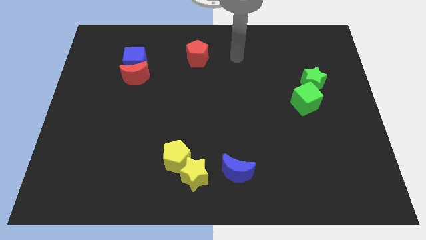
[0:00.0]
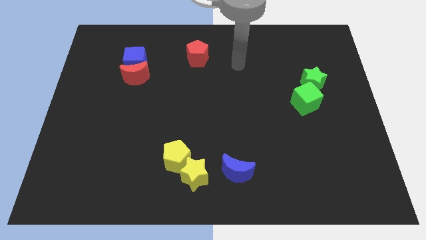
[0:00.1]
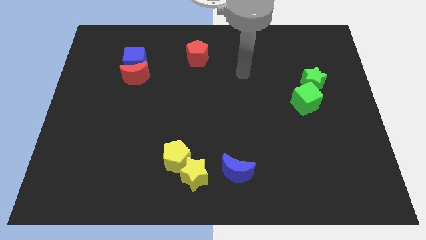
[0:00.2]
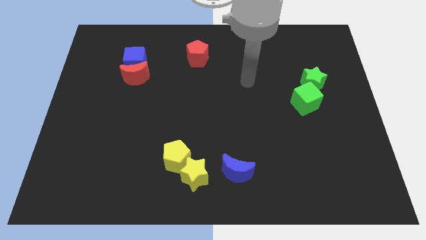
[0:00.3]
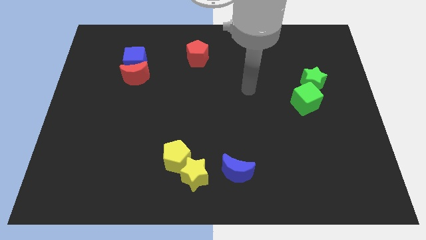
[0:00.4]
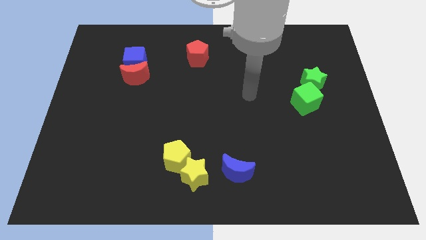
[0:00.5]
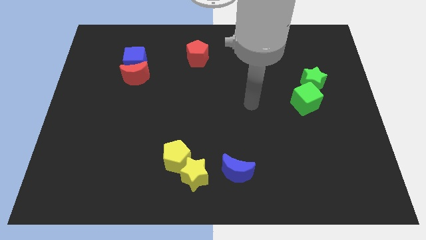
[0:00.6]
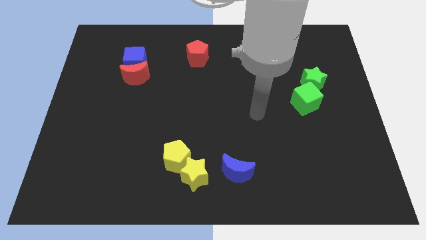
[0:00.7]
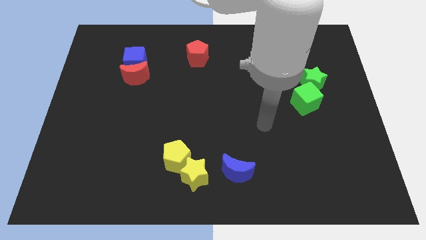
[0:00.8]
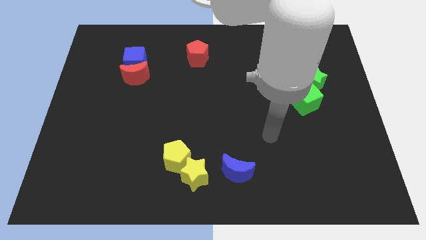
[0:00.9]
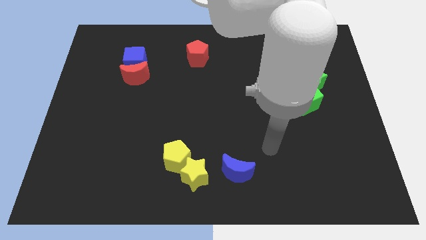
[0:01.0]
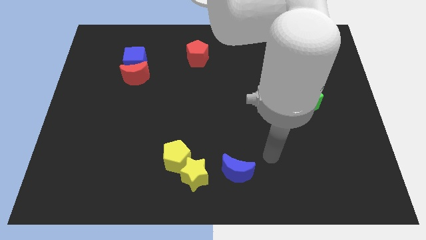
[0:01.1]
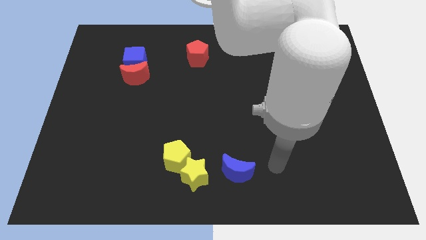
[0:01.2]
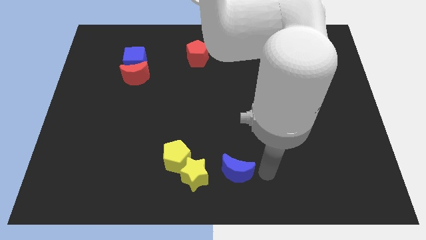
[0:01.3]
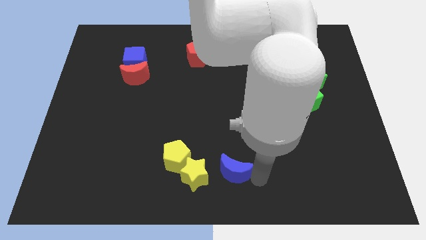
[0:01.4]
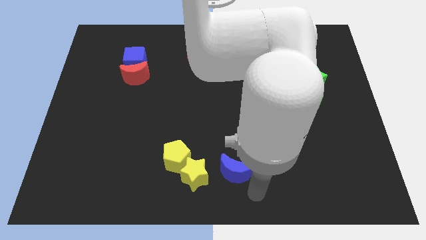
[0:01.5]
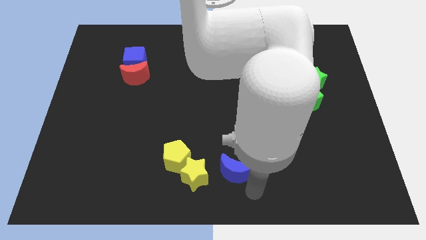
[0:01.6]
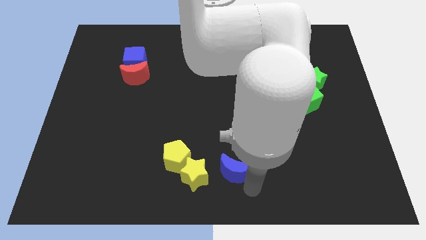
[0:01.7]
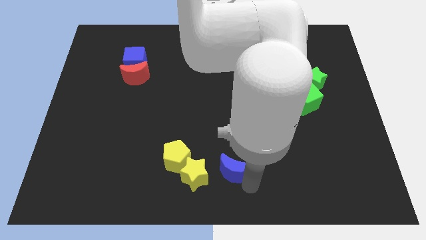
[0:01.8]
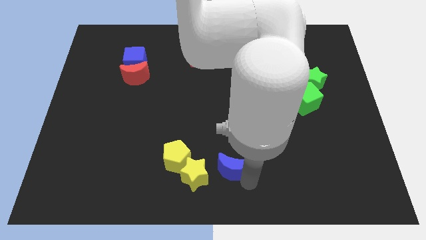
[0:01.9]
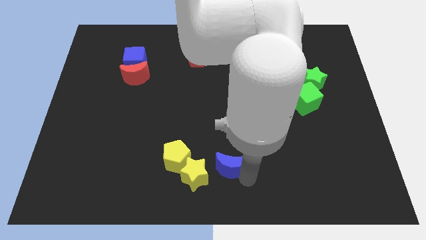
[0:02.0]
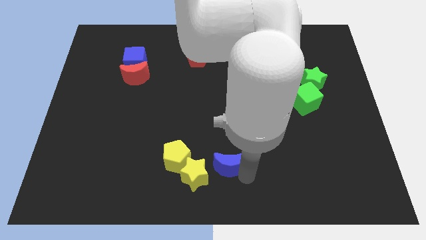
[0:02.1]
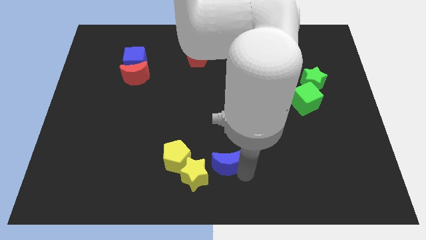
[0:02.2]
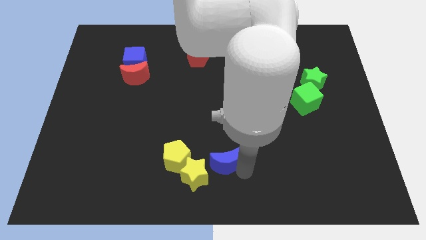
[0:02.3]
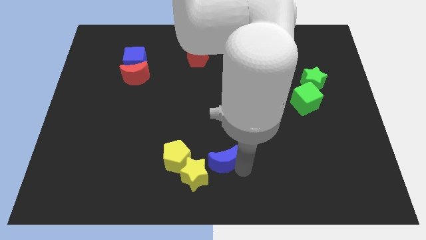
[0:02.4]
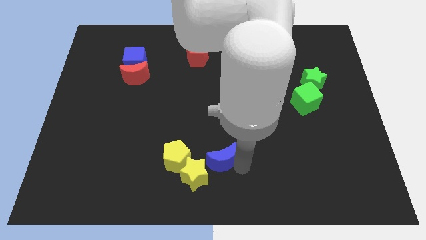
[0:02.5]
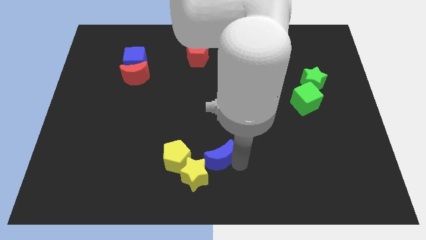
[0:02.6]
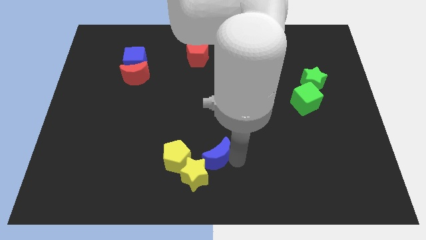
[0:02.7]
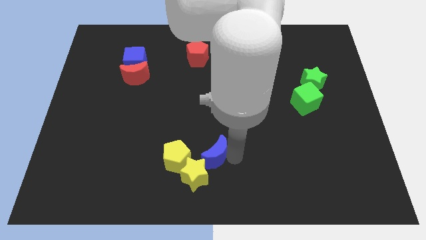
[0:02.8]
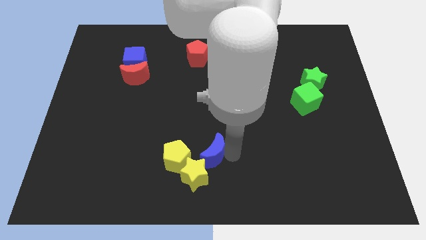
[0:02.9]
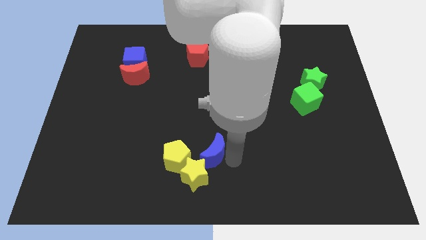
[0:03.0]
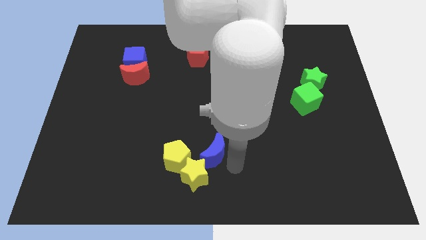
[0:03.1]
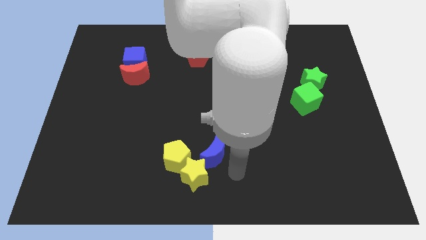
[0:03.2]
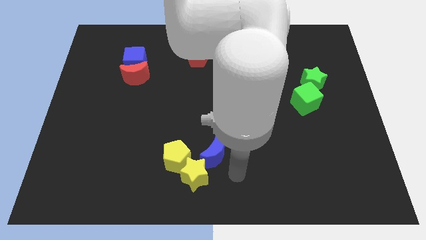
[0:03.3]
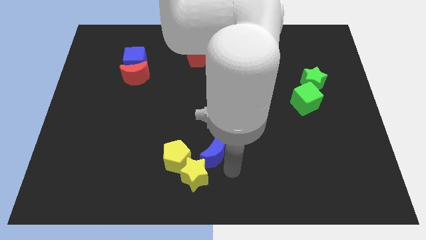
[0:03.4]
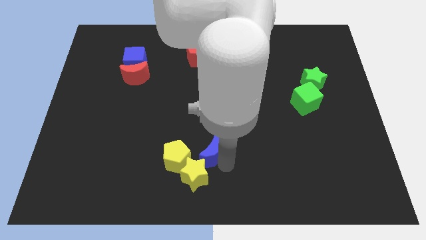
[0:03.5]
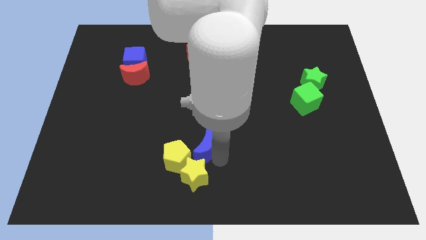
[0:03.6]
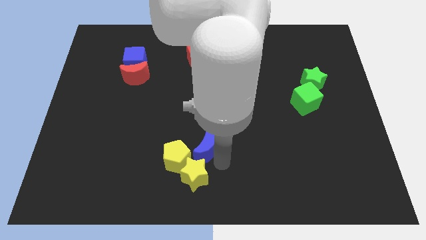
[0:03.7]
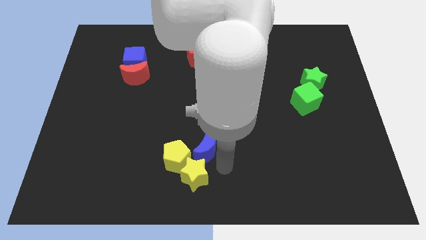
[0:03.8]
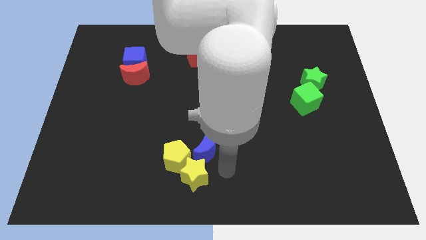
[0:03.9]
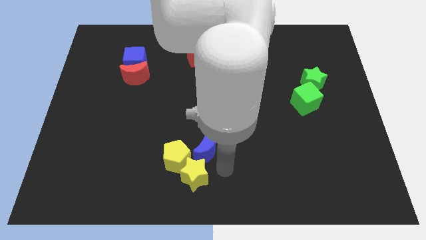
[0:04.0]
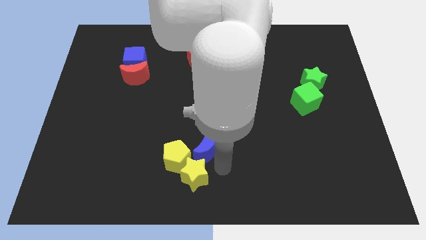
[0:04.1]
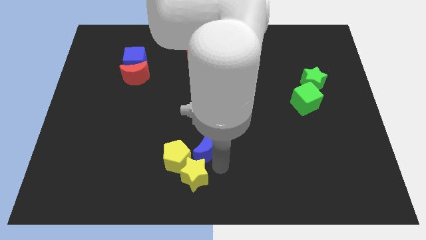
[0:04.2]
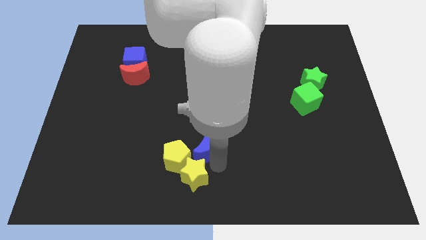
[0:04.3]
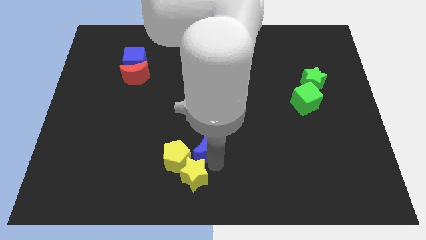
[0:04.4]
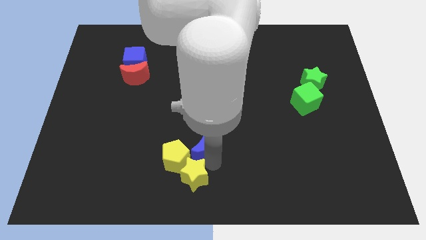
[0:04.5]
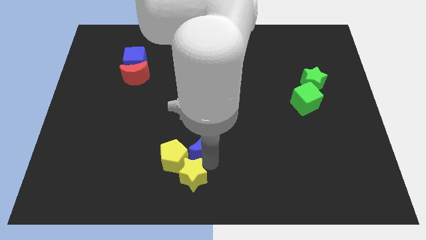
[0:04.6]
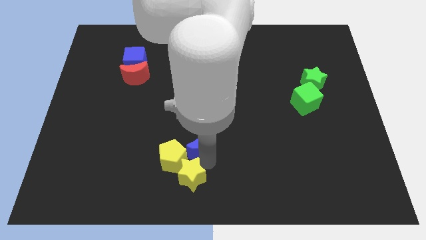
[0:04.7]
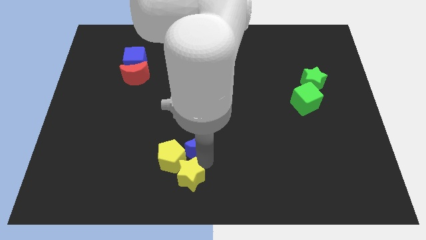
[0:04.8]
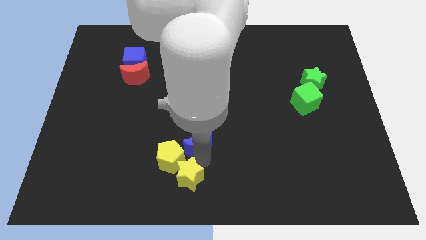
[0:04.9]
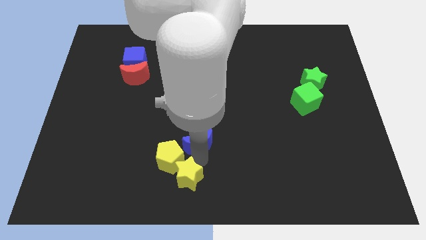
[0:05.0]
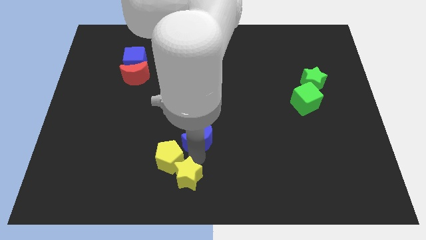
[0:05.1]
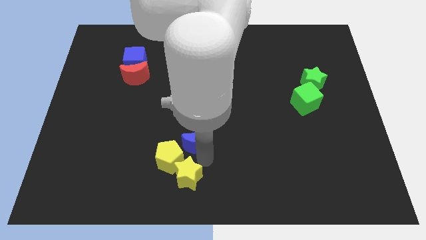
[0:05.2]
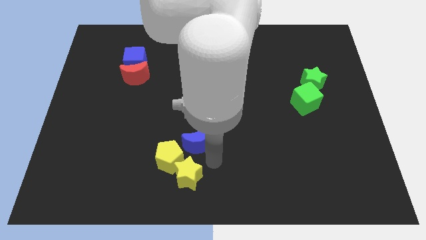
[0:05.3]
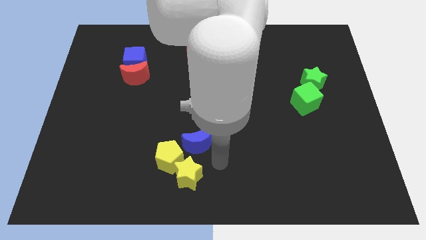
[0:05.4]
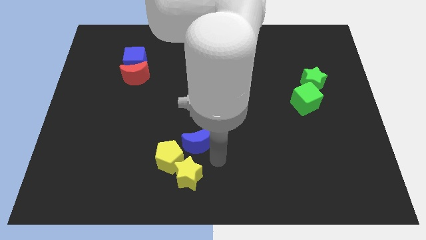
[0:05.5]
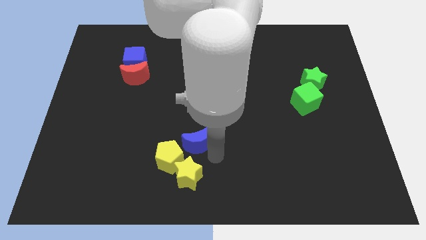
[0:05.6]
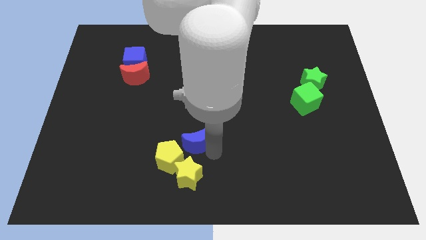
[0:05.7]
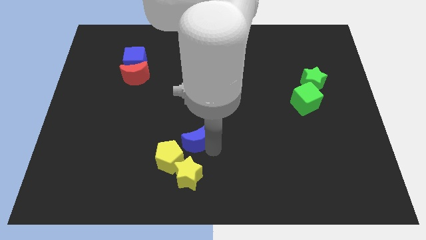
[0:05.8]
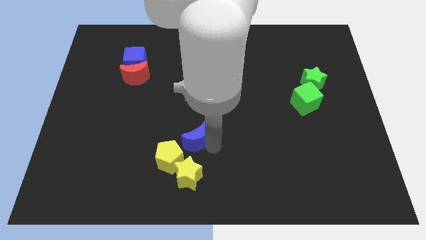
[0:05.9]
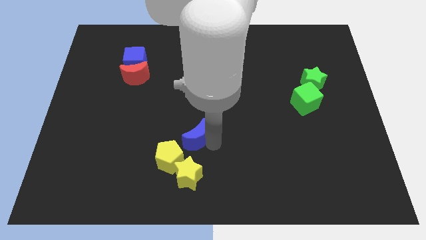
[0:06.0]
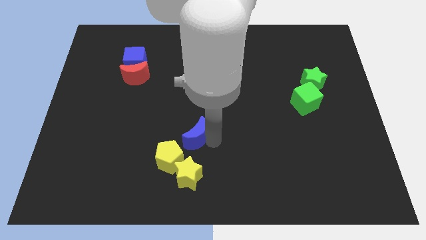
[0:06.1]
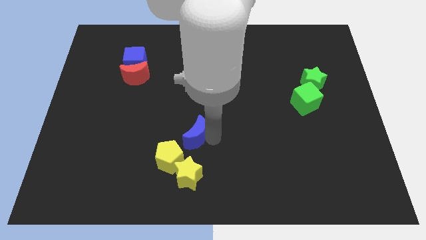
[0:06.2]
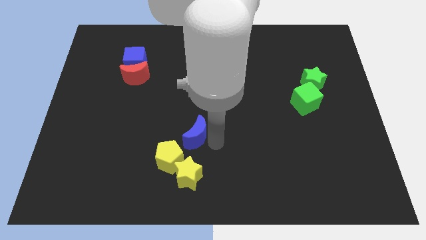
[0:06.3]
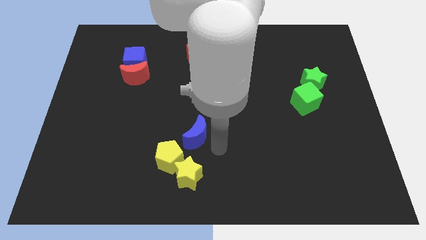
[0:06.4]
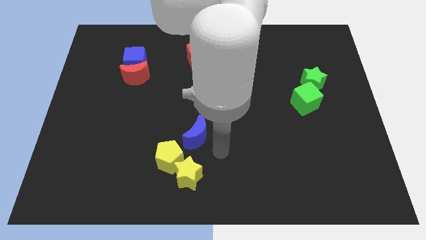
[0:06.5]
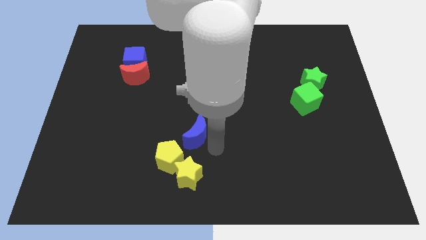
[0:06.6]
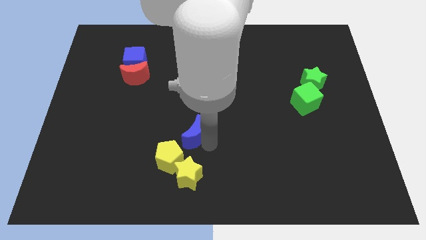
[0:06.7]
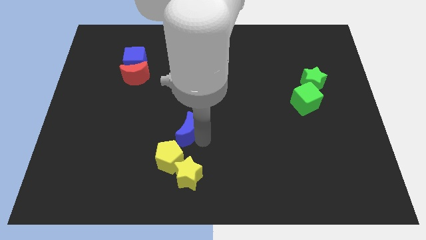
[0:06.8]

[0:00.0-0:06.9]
slide the blue moon to the top of the yellow pentagon

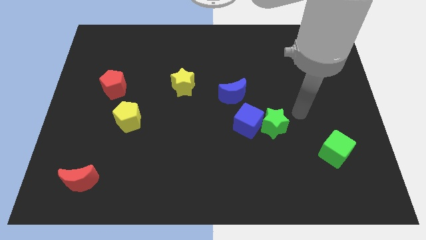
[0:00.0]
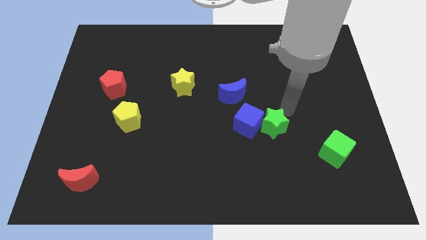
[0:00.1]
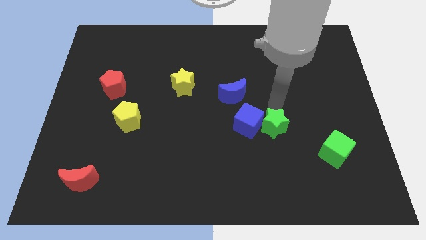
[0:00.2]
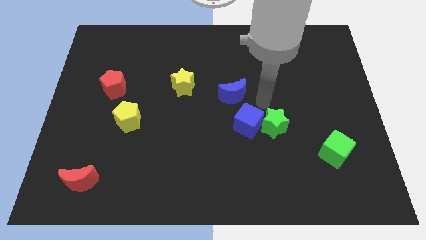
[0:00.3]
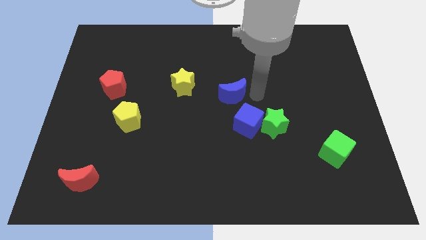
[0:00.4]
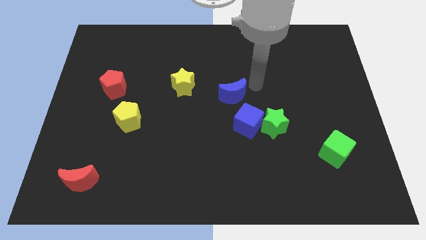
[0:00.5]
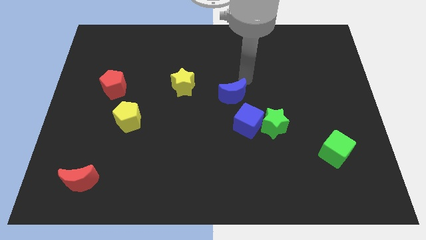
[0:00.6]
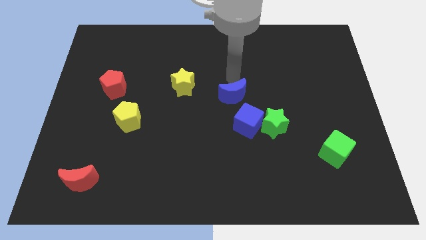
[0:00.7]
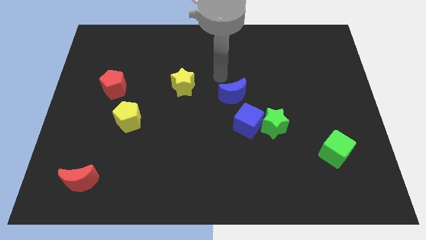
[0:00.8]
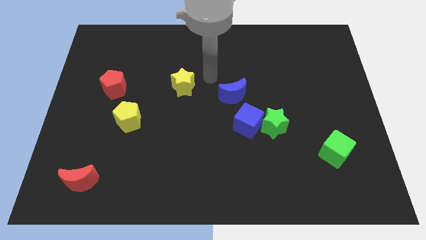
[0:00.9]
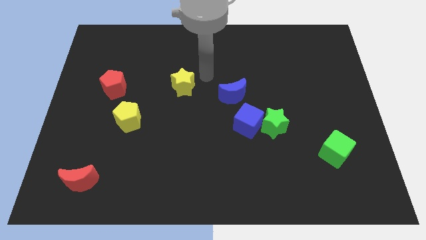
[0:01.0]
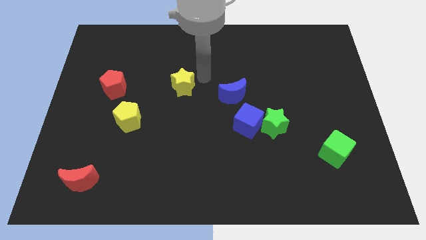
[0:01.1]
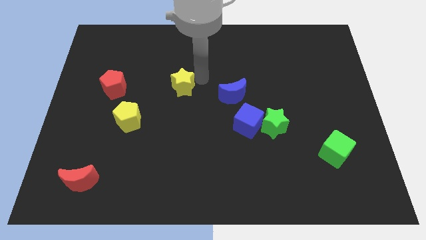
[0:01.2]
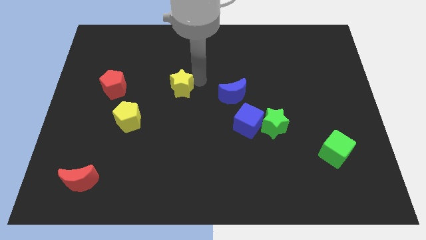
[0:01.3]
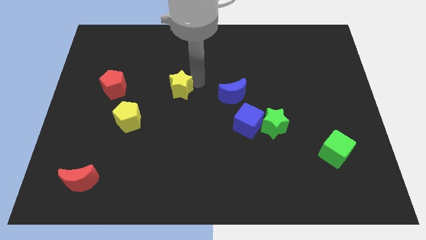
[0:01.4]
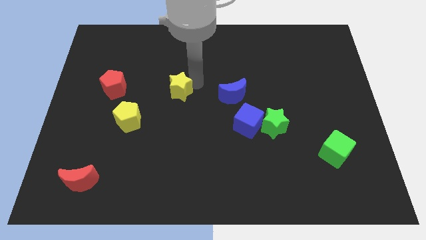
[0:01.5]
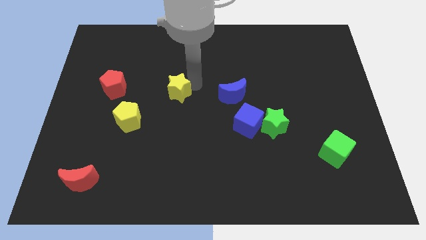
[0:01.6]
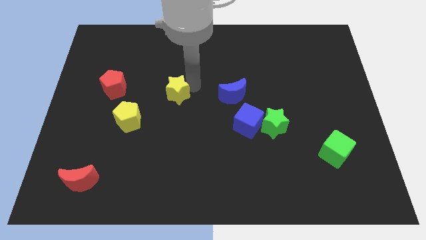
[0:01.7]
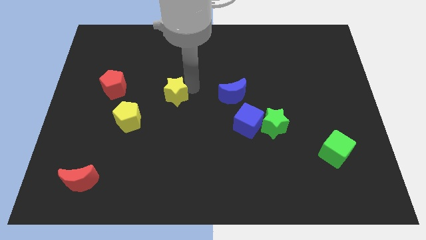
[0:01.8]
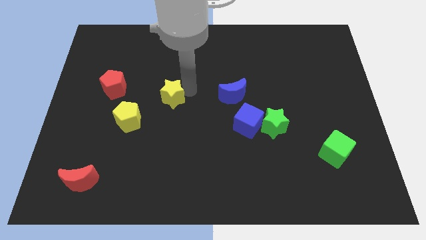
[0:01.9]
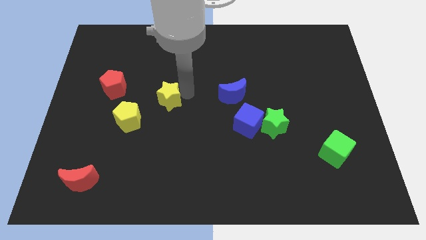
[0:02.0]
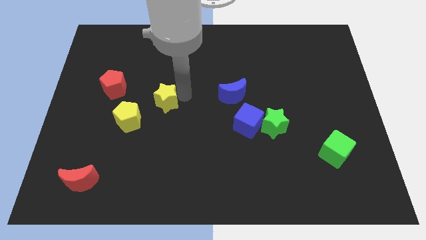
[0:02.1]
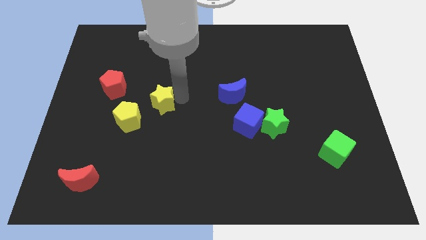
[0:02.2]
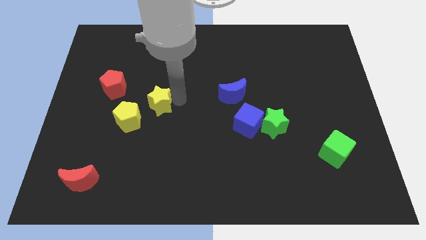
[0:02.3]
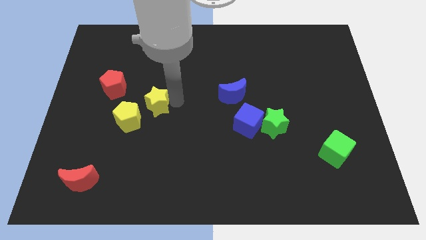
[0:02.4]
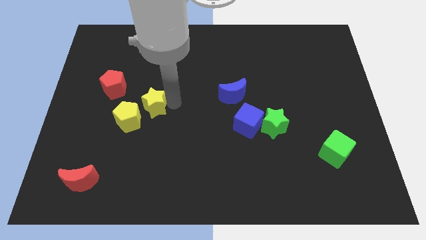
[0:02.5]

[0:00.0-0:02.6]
slide the yellow star to the bottom right of the red pentagon
